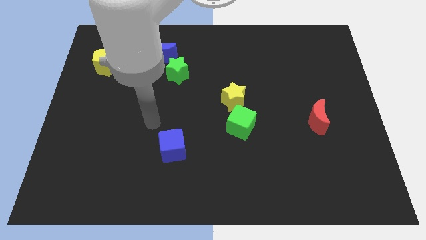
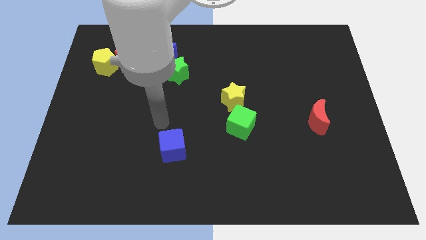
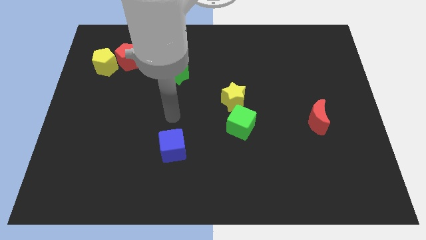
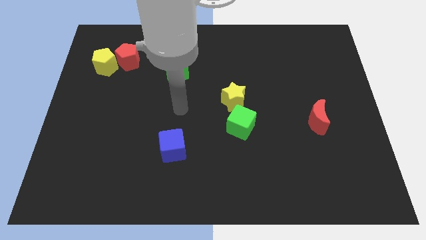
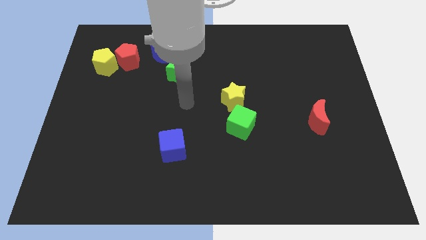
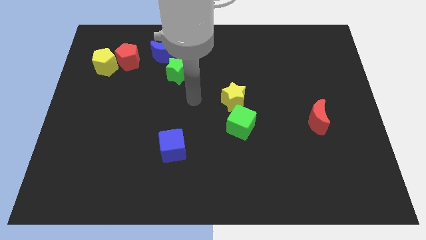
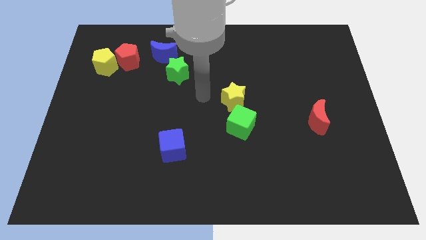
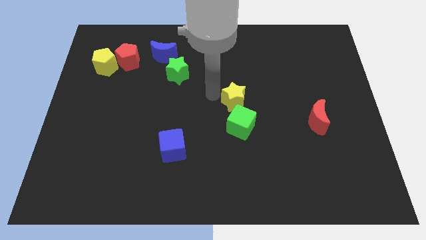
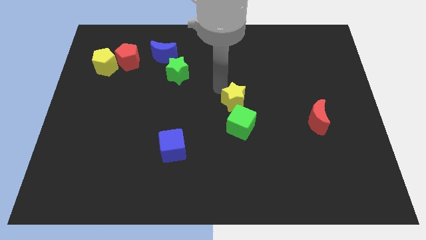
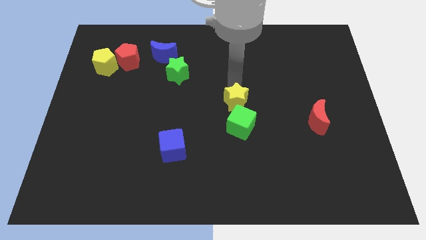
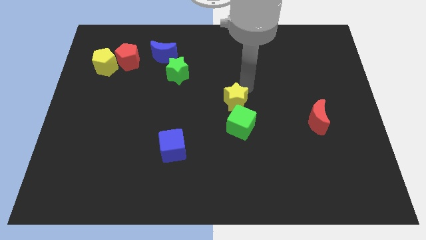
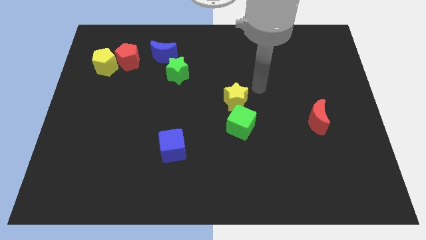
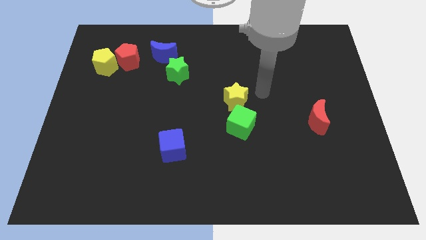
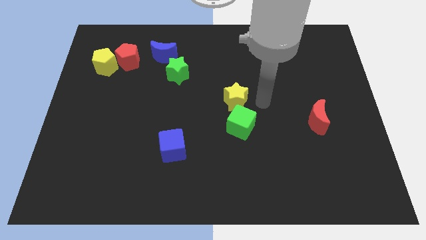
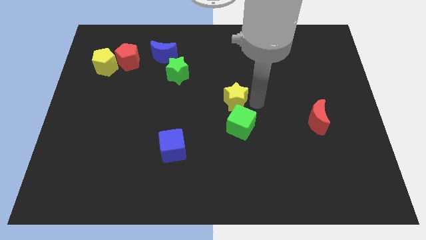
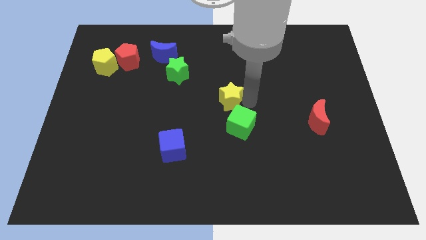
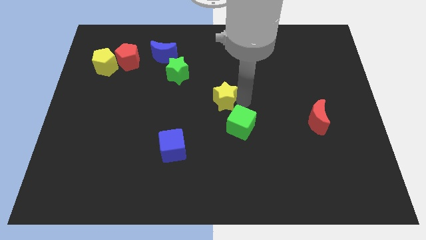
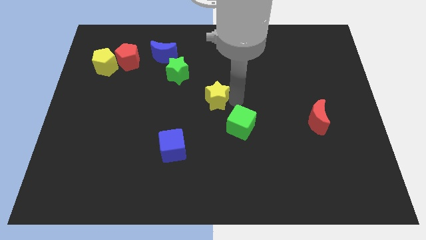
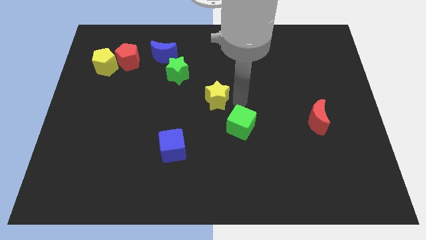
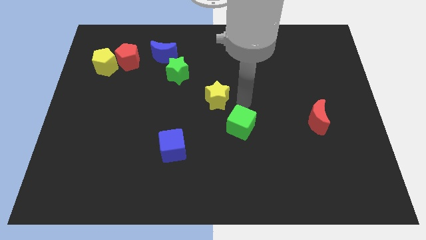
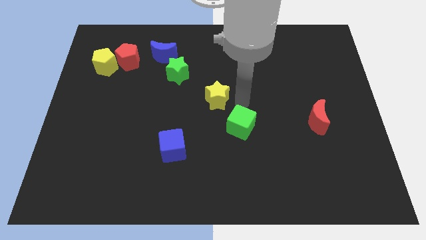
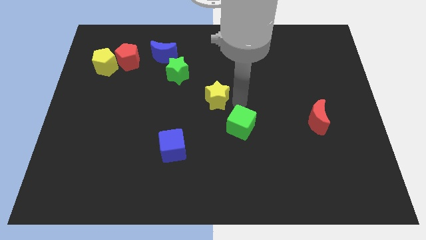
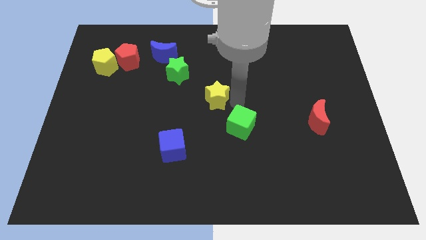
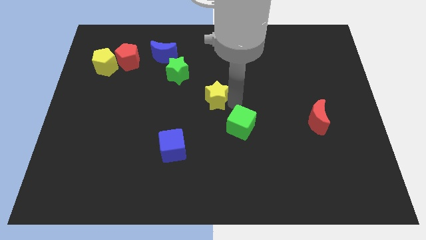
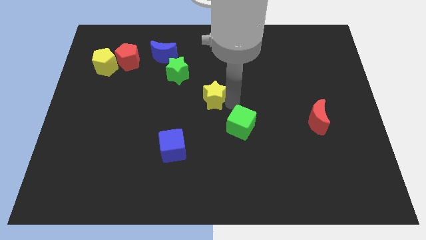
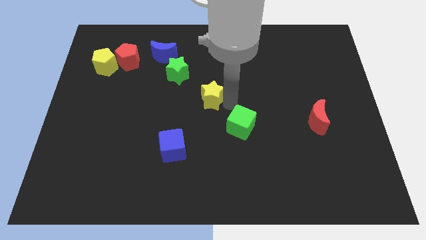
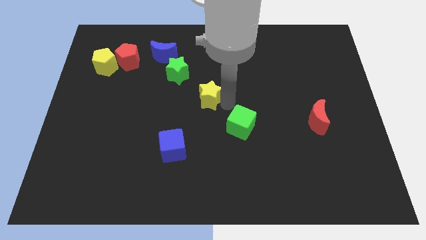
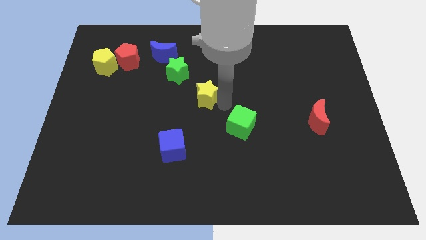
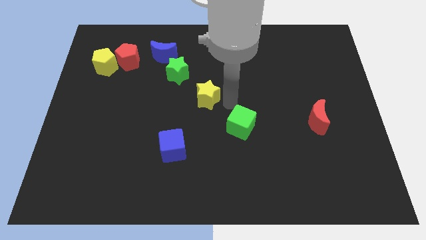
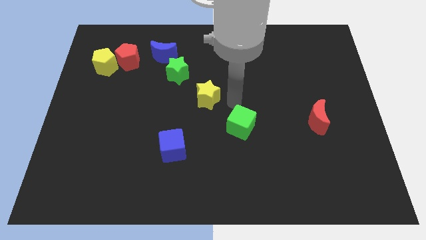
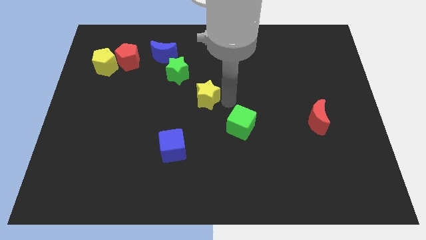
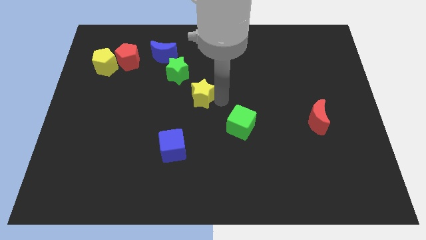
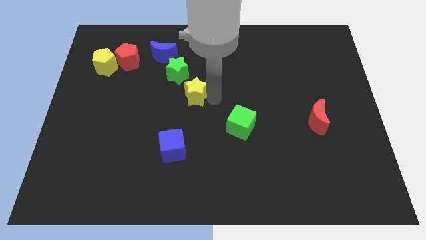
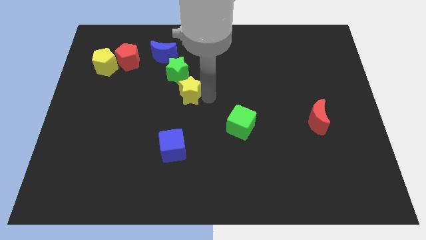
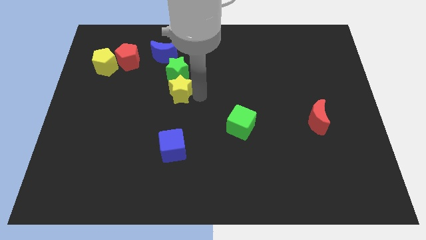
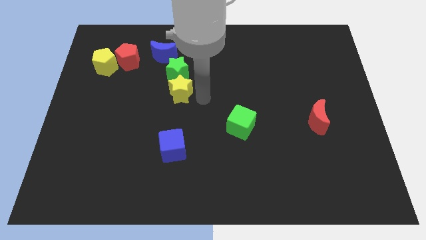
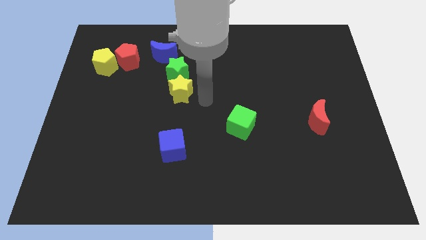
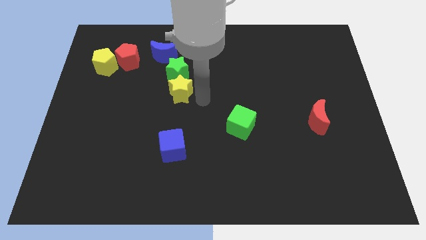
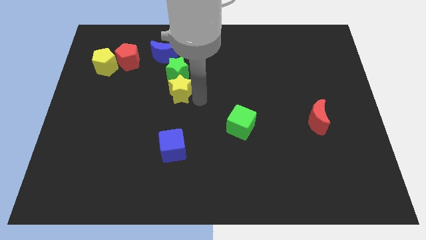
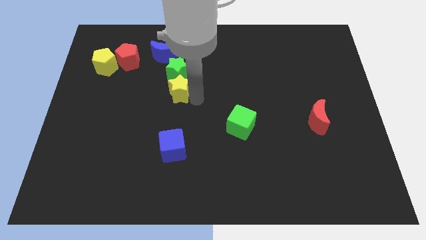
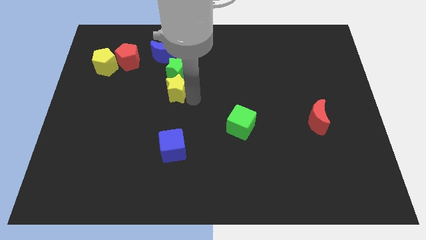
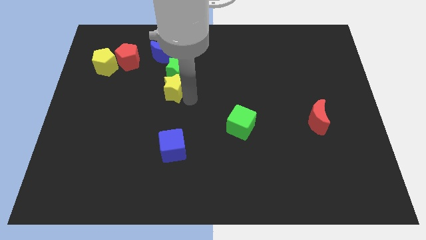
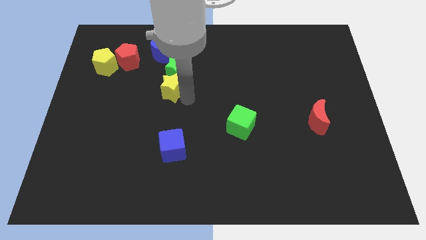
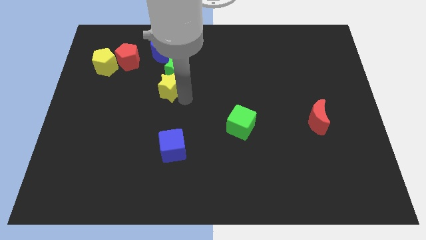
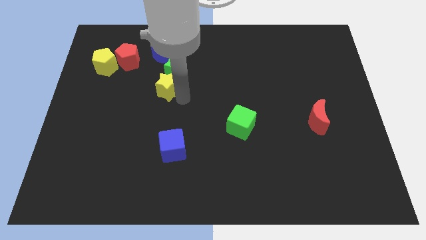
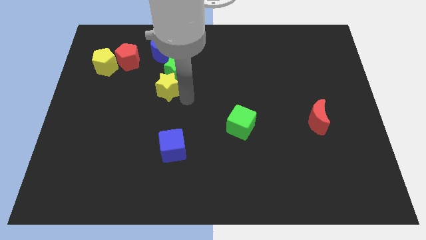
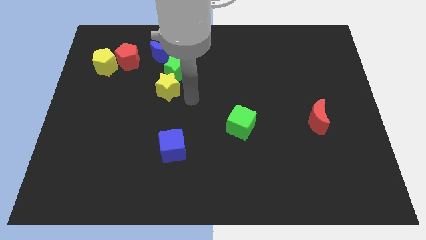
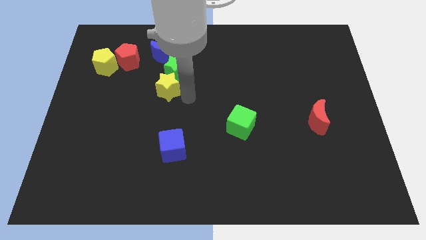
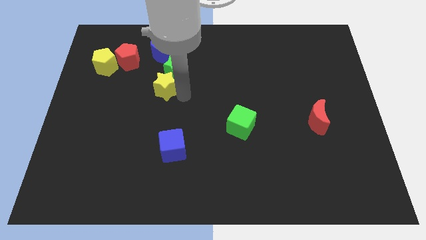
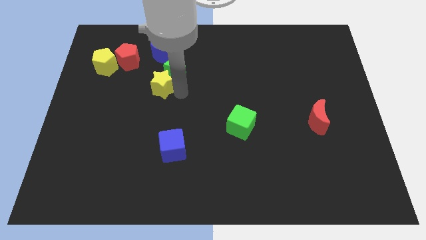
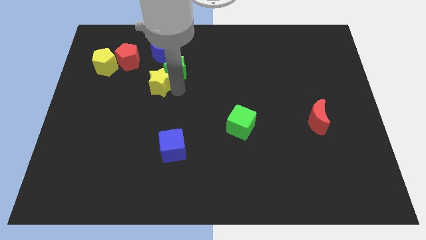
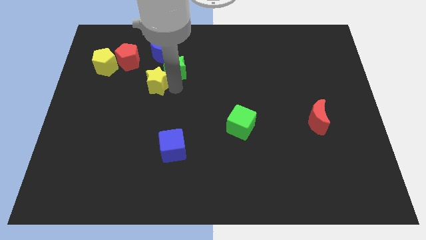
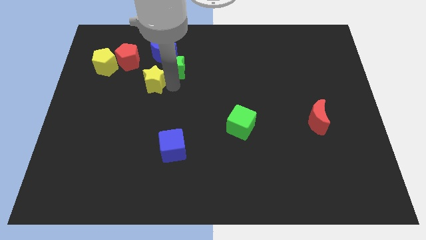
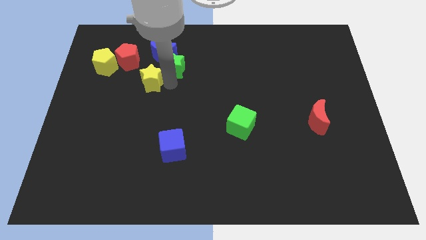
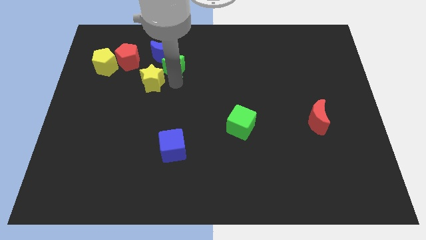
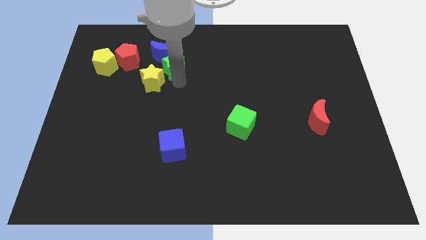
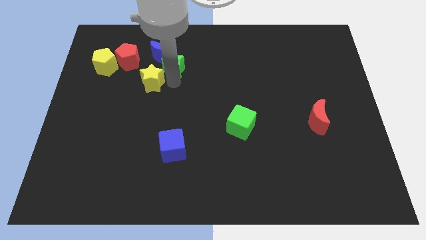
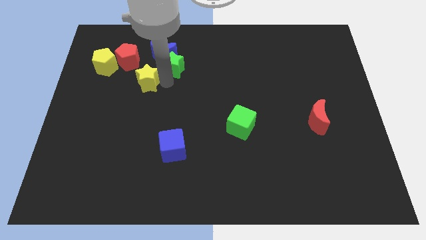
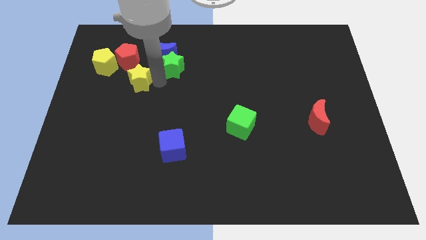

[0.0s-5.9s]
slide the yellow star to the bottom right side of the yellow pentagon

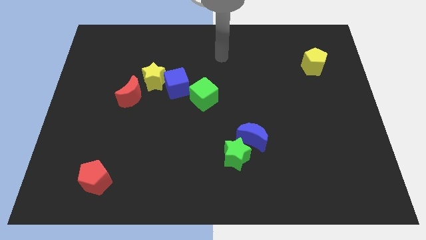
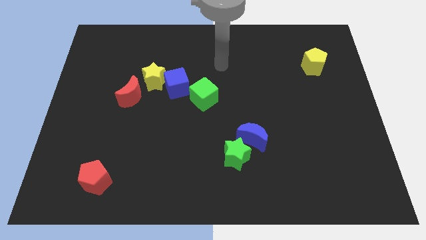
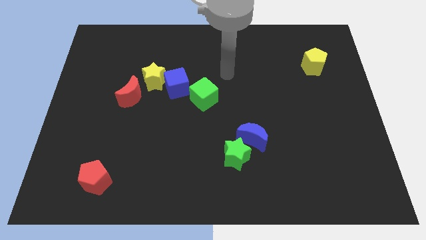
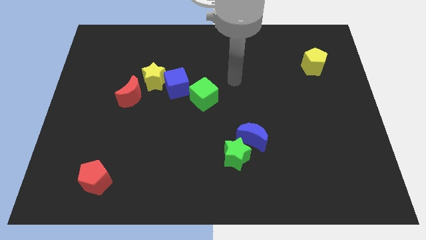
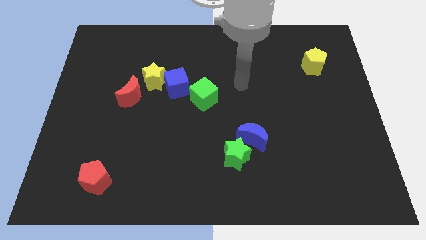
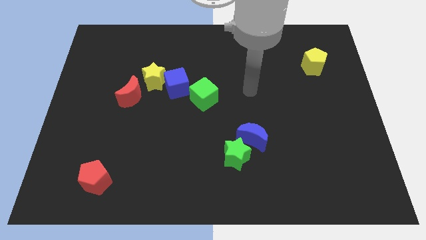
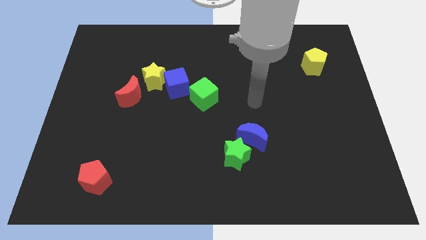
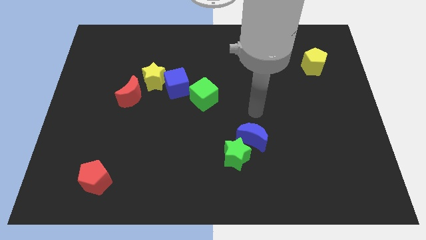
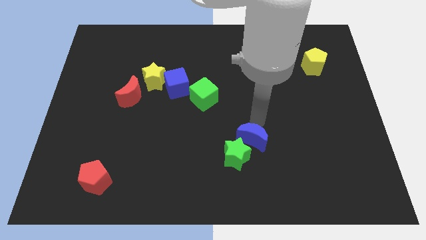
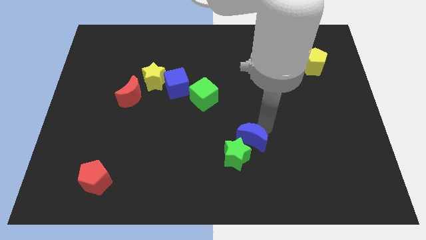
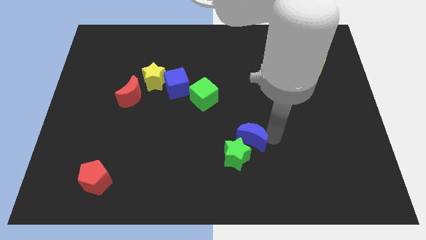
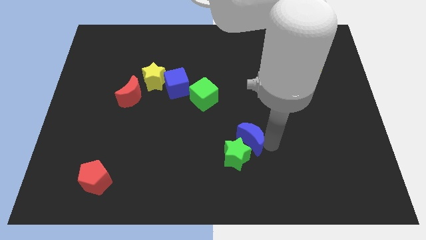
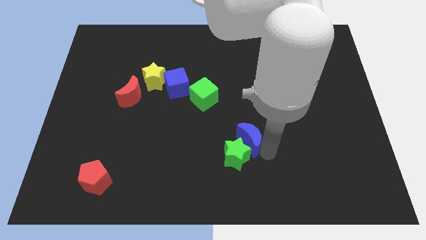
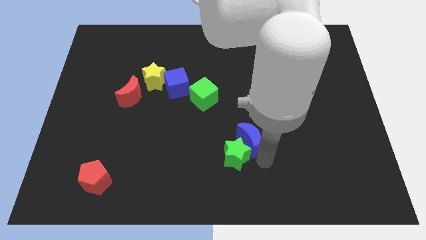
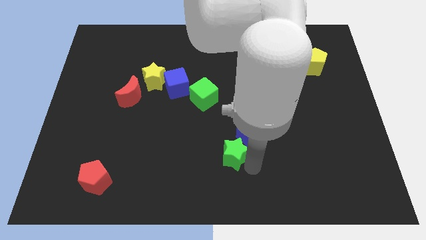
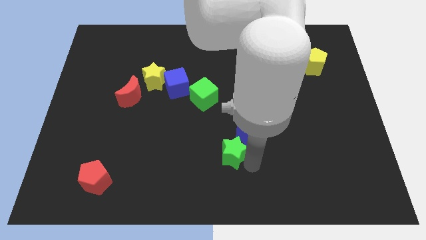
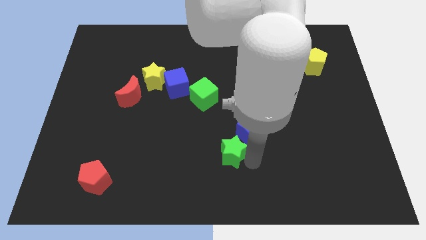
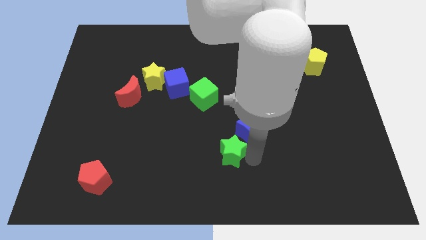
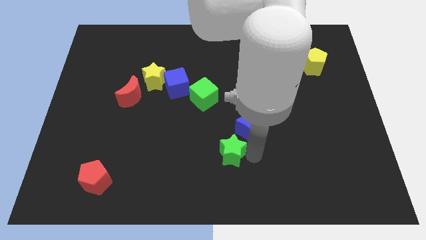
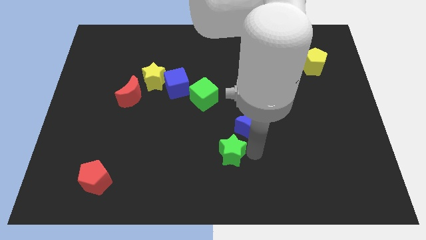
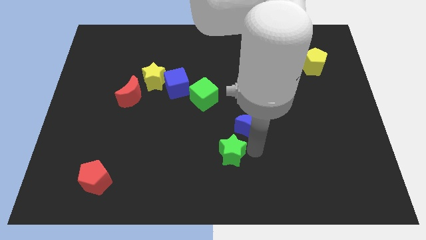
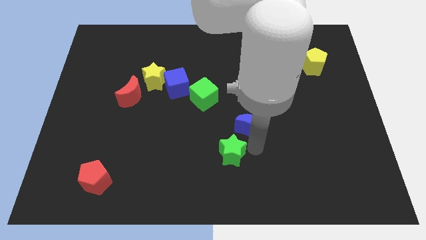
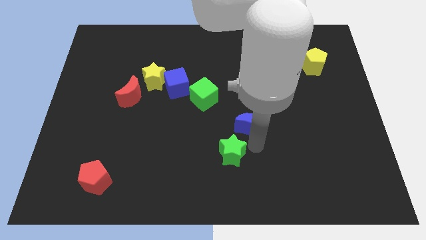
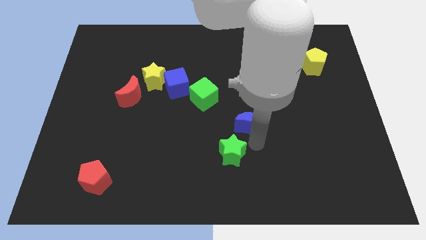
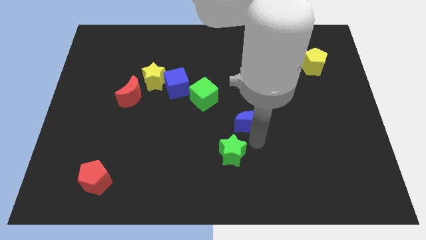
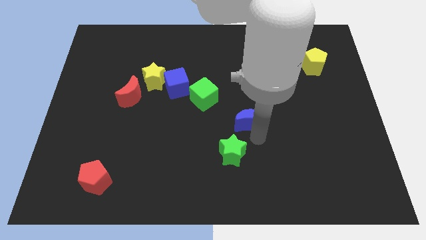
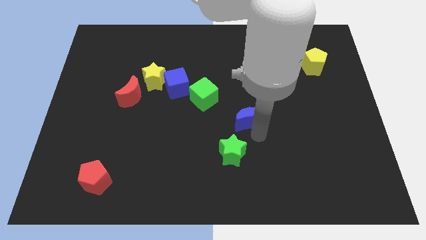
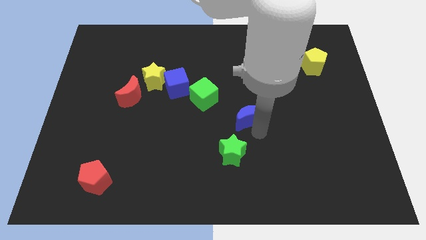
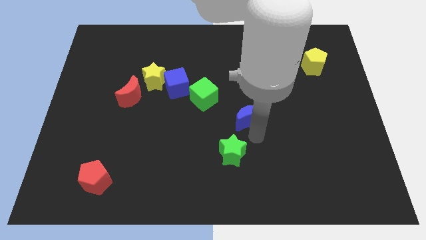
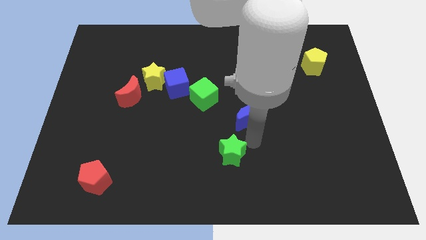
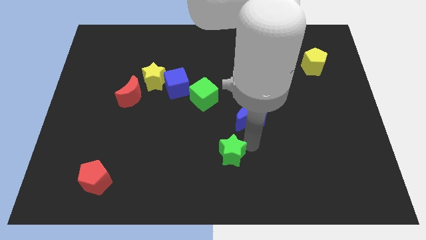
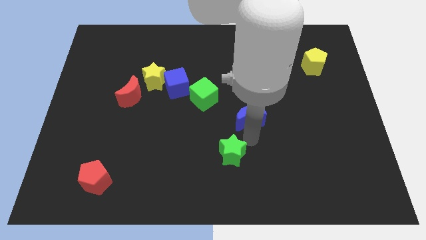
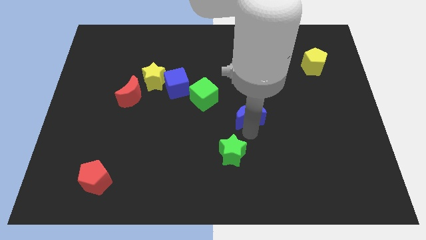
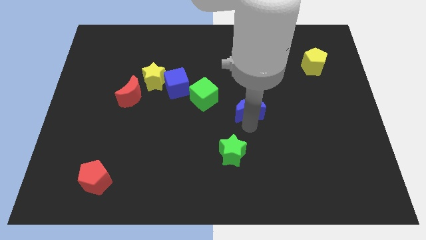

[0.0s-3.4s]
slide the blue moon to the right side of the green cube
